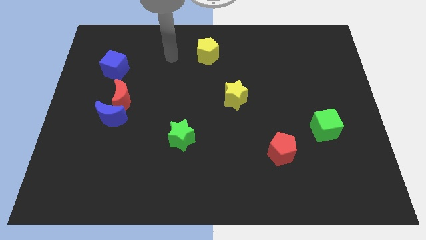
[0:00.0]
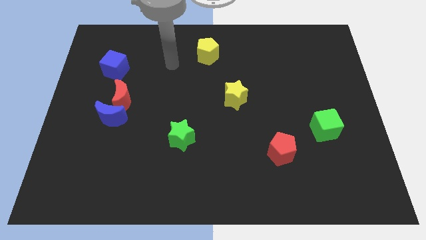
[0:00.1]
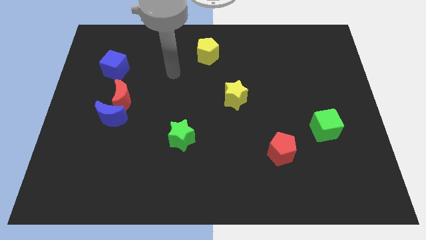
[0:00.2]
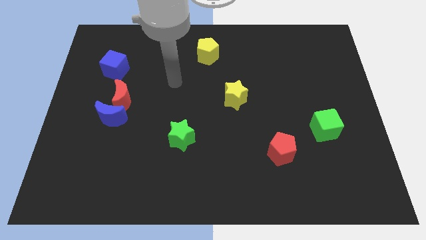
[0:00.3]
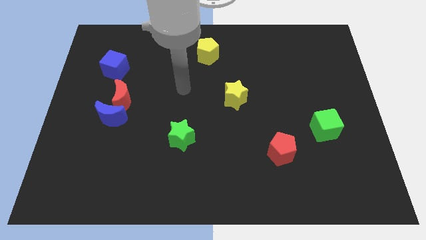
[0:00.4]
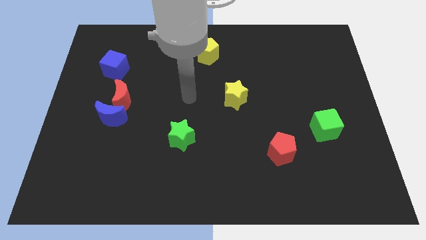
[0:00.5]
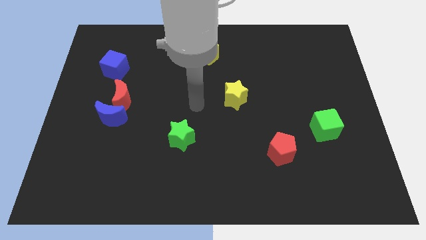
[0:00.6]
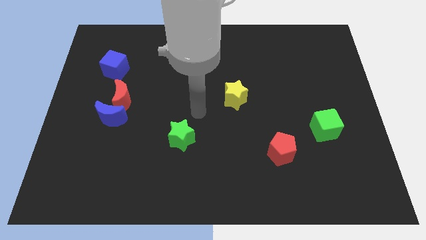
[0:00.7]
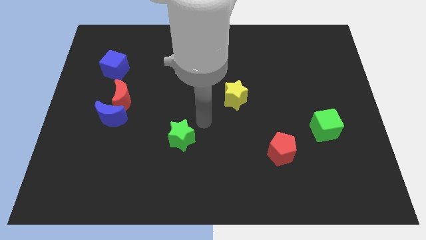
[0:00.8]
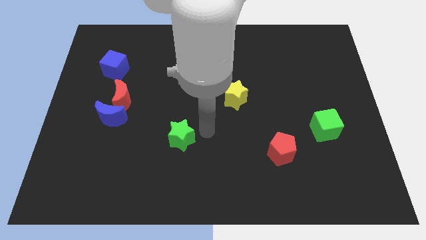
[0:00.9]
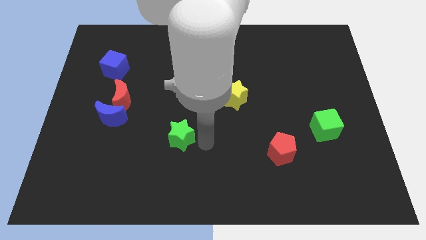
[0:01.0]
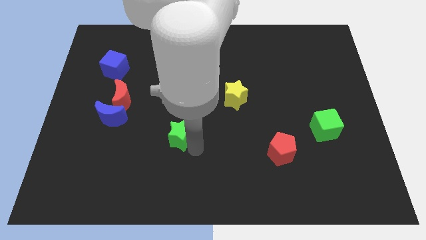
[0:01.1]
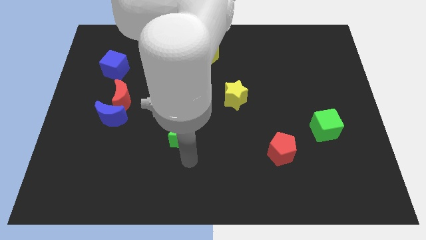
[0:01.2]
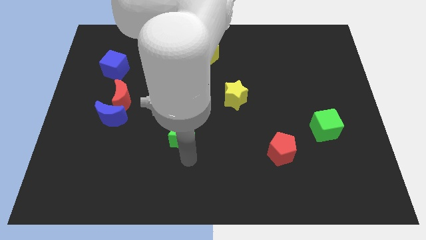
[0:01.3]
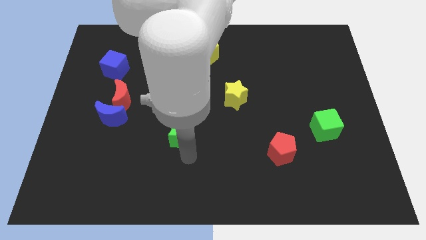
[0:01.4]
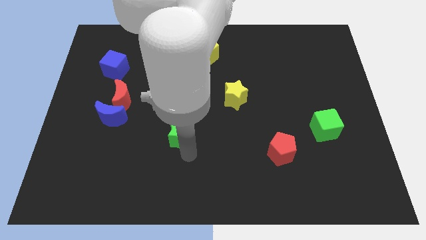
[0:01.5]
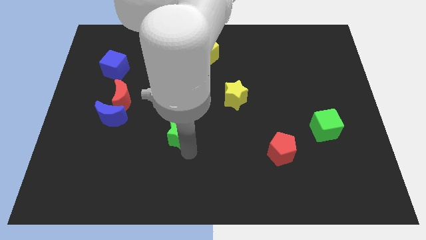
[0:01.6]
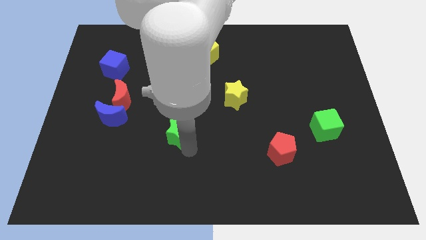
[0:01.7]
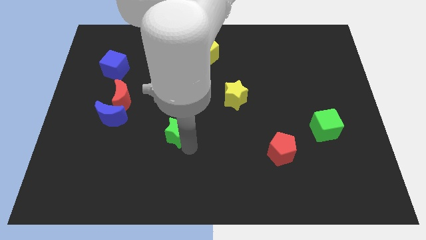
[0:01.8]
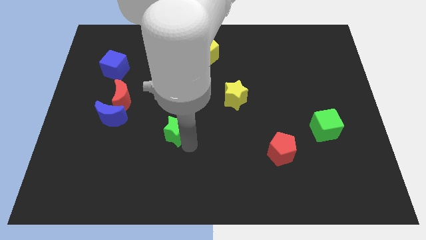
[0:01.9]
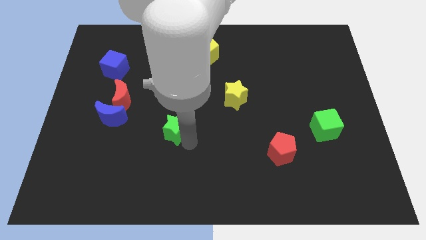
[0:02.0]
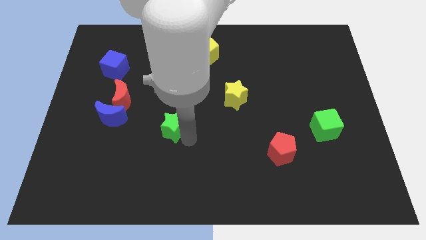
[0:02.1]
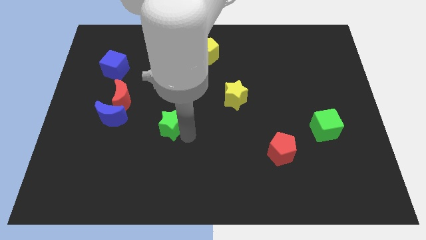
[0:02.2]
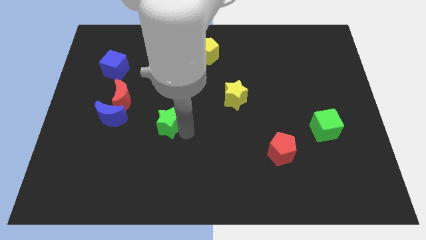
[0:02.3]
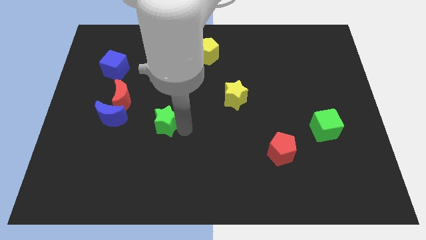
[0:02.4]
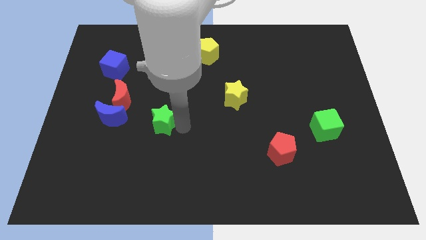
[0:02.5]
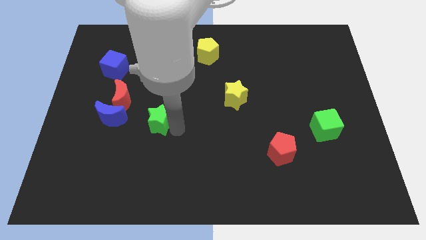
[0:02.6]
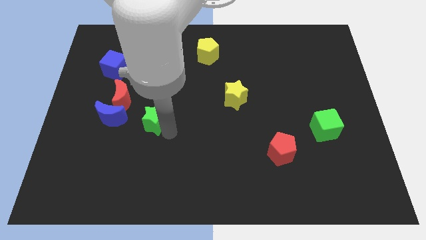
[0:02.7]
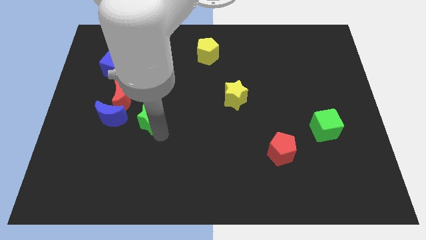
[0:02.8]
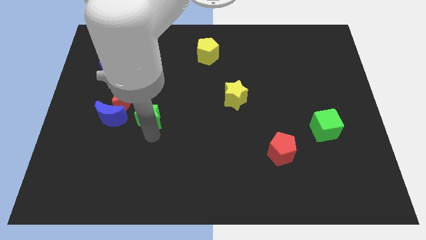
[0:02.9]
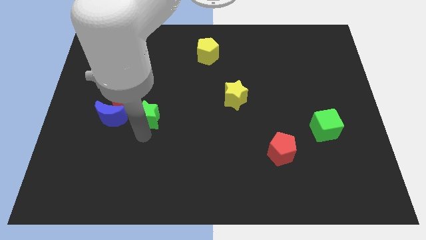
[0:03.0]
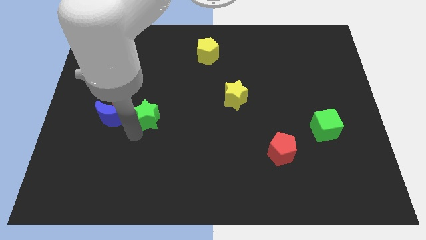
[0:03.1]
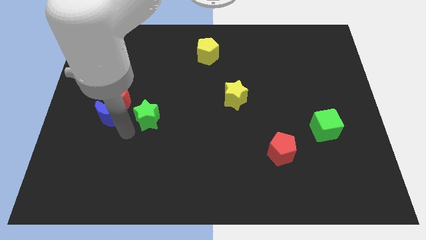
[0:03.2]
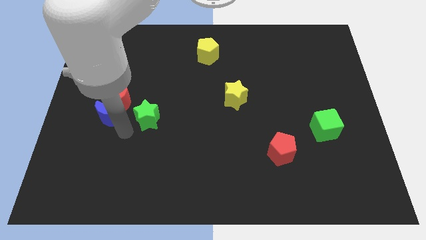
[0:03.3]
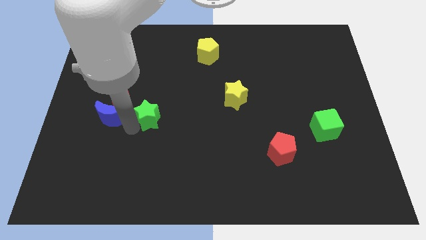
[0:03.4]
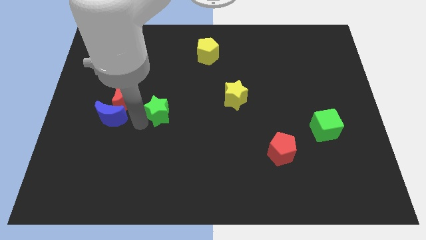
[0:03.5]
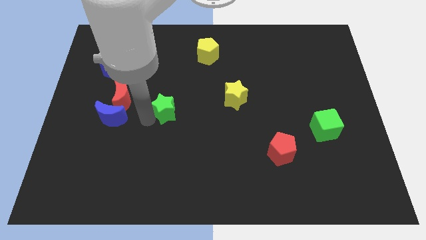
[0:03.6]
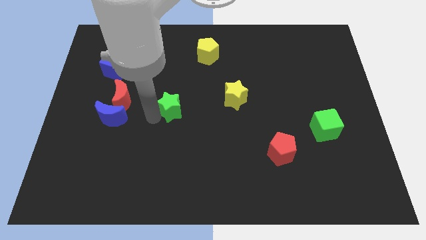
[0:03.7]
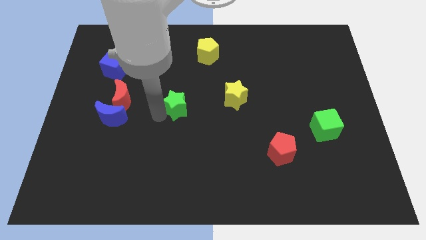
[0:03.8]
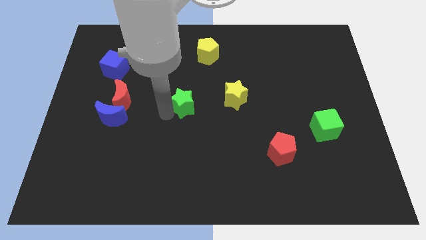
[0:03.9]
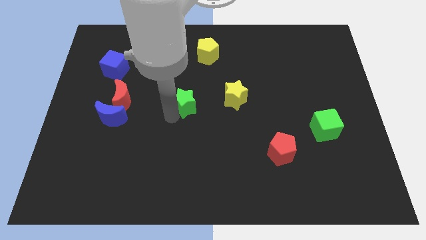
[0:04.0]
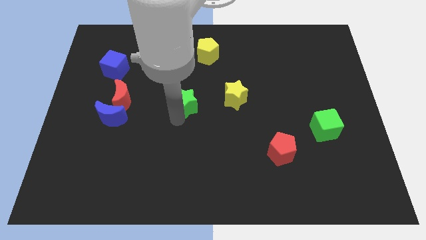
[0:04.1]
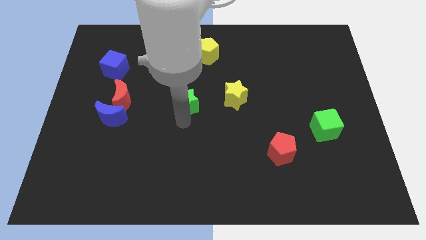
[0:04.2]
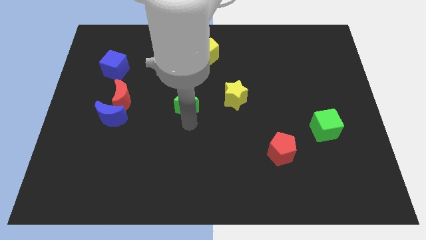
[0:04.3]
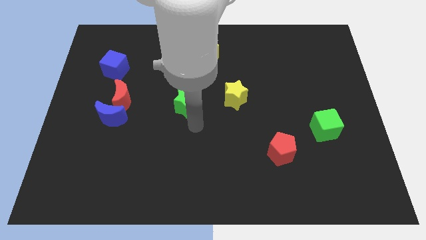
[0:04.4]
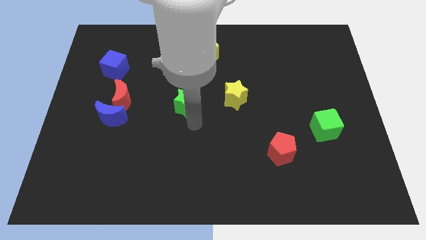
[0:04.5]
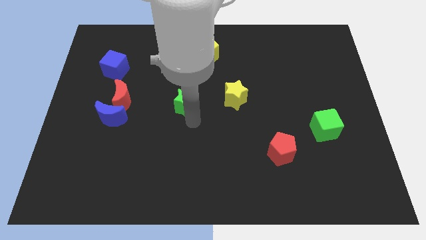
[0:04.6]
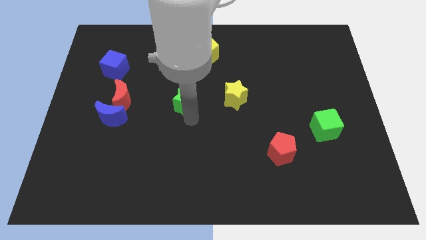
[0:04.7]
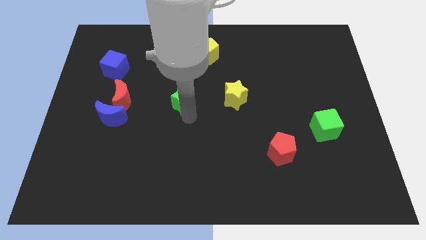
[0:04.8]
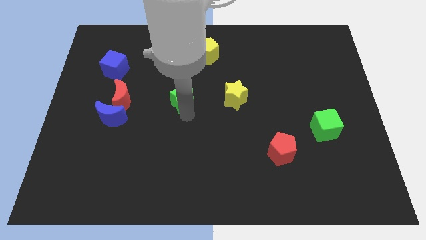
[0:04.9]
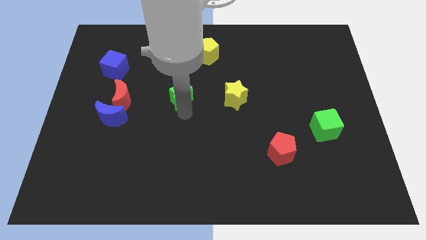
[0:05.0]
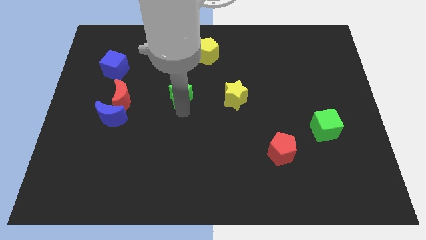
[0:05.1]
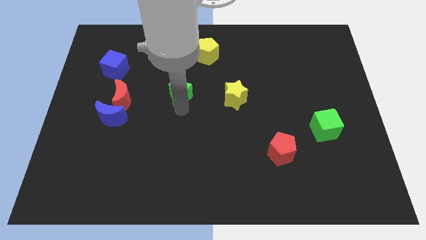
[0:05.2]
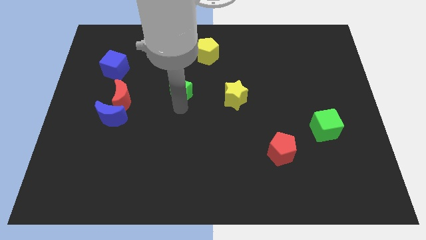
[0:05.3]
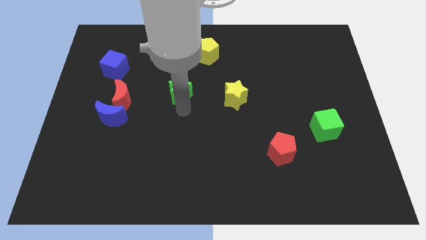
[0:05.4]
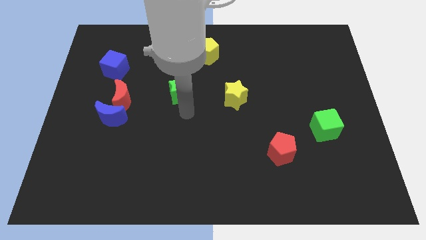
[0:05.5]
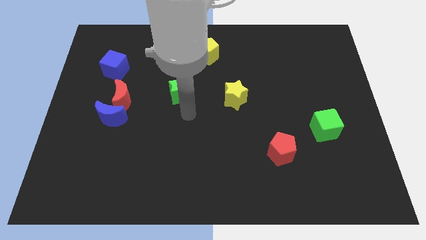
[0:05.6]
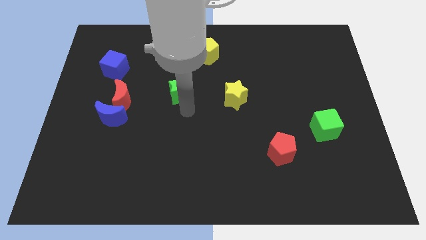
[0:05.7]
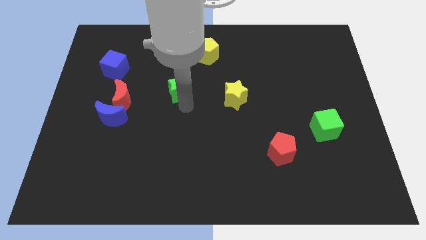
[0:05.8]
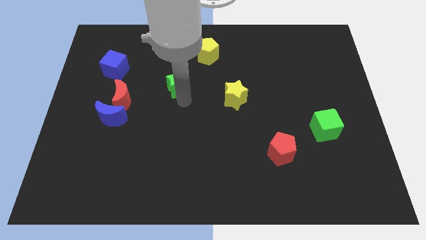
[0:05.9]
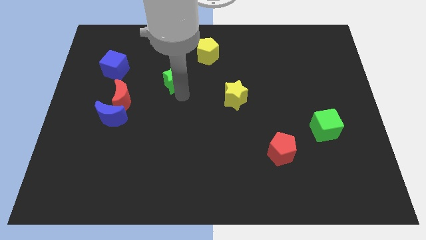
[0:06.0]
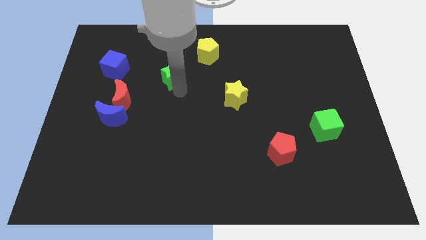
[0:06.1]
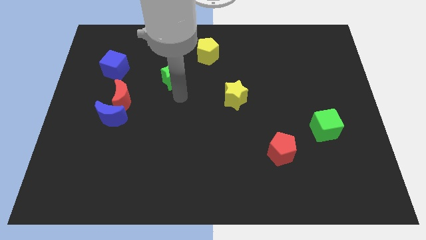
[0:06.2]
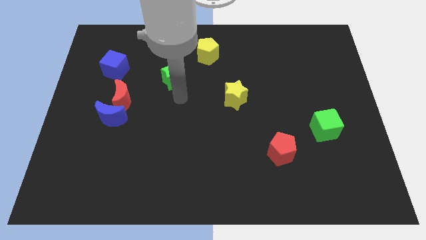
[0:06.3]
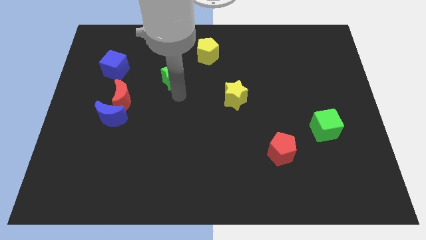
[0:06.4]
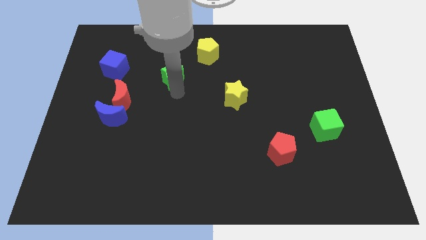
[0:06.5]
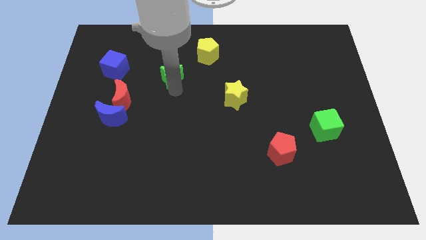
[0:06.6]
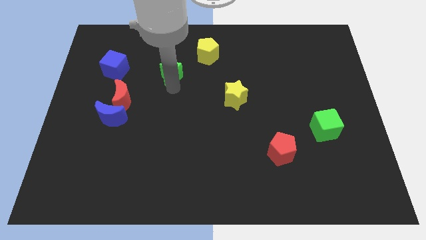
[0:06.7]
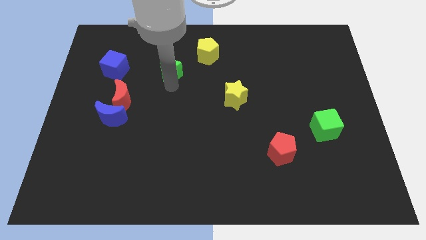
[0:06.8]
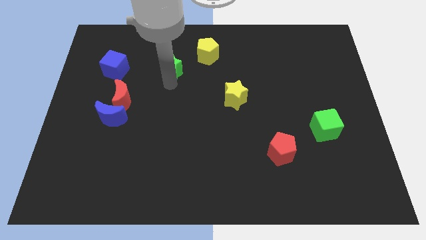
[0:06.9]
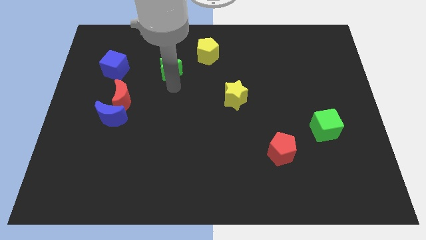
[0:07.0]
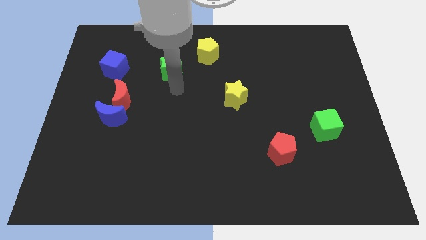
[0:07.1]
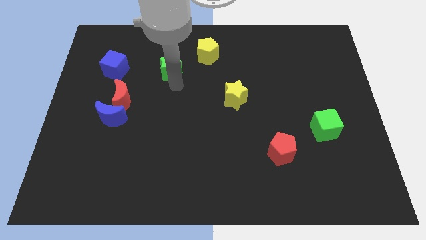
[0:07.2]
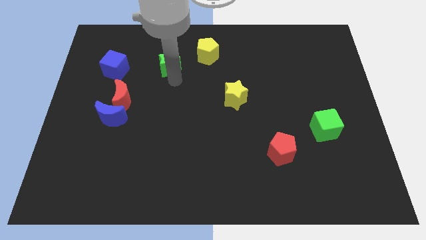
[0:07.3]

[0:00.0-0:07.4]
slide the green star to the left side of the yellow pentagon

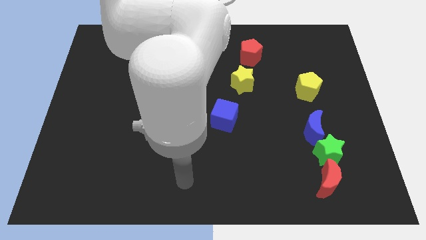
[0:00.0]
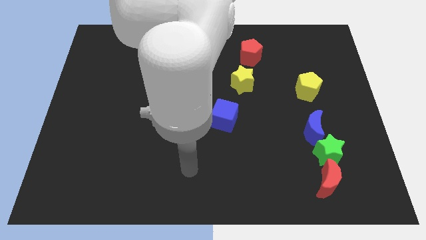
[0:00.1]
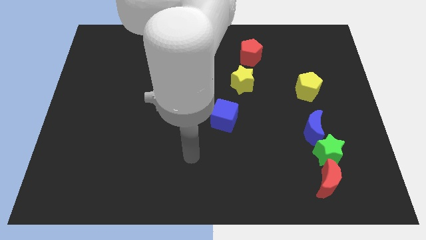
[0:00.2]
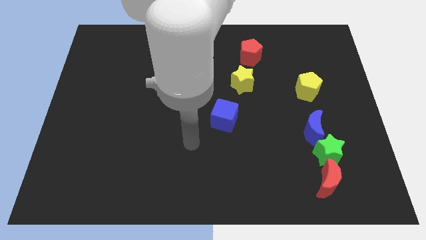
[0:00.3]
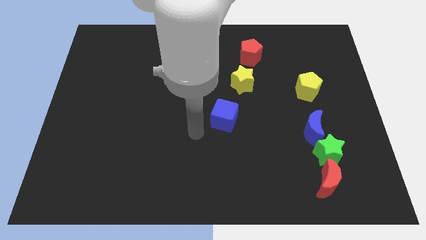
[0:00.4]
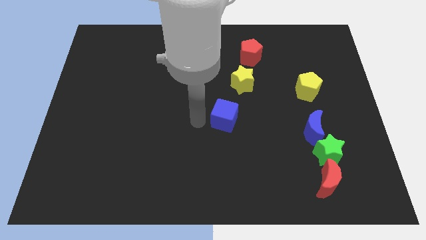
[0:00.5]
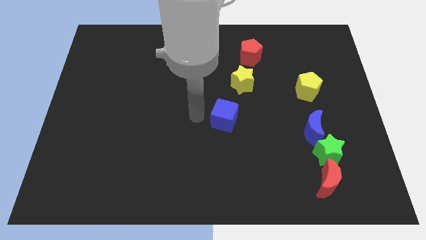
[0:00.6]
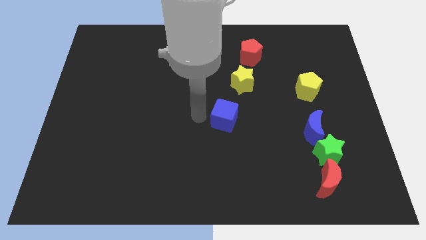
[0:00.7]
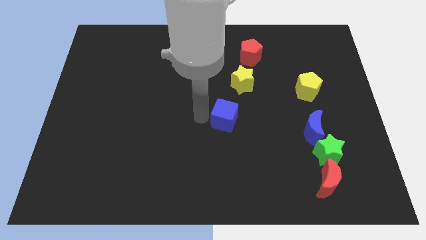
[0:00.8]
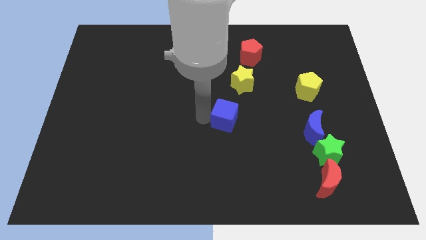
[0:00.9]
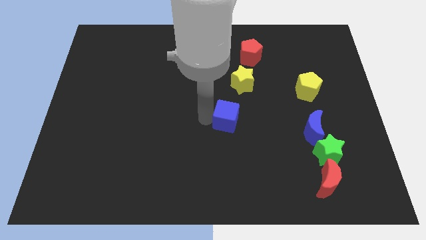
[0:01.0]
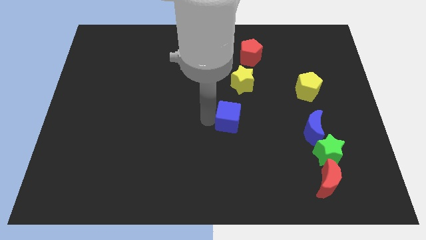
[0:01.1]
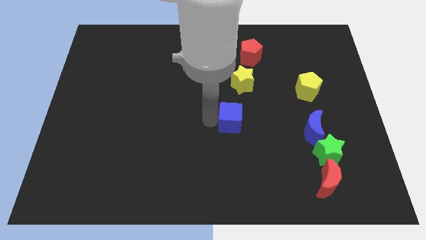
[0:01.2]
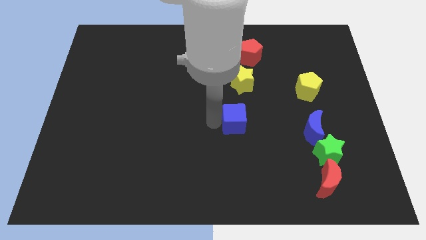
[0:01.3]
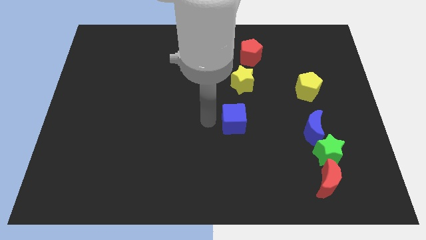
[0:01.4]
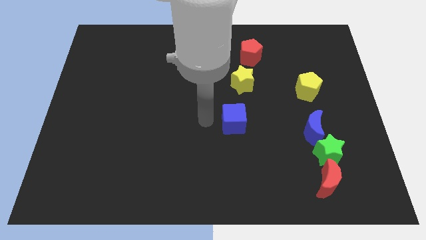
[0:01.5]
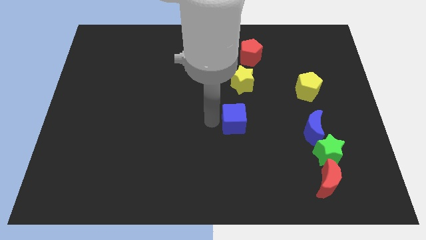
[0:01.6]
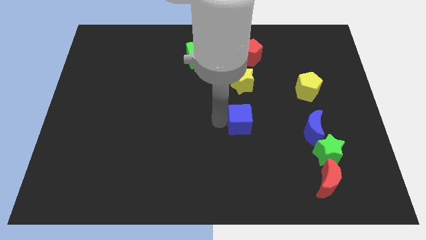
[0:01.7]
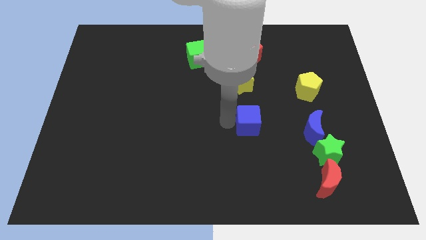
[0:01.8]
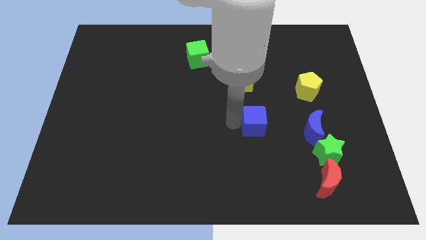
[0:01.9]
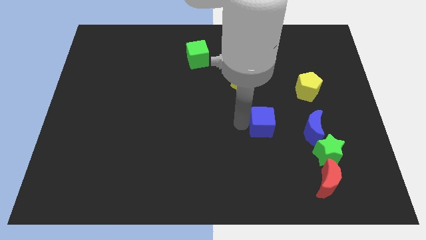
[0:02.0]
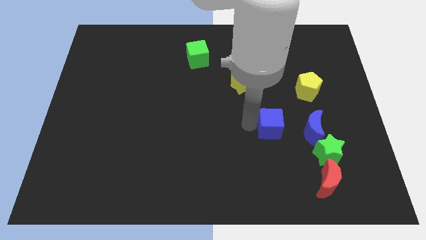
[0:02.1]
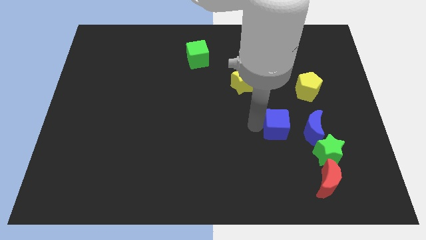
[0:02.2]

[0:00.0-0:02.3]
slide the blue cube diagonally up and to the left of the green star
